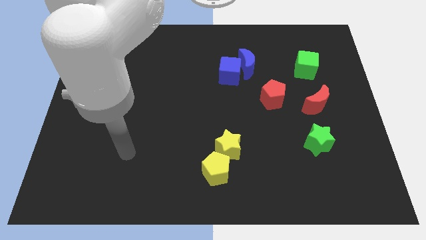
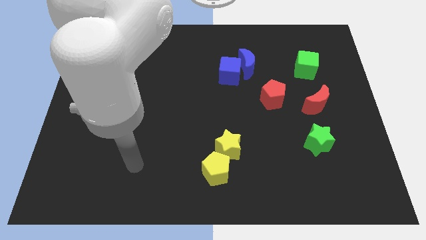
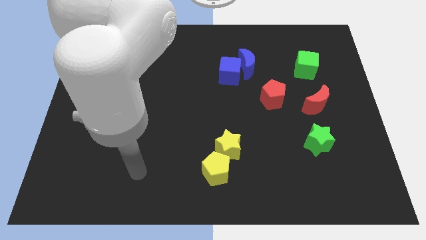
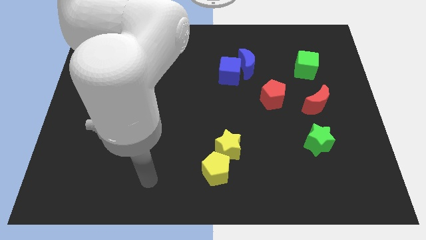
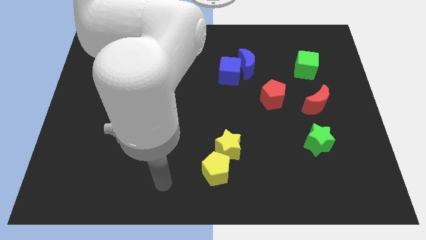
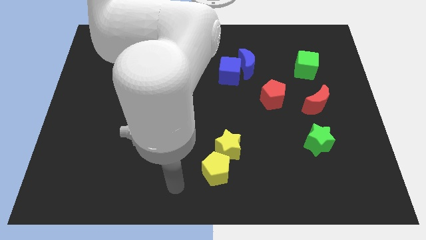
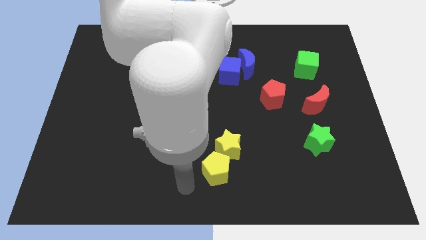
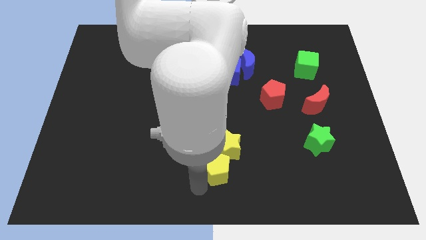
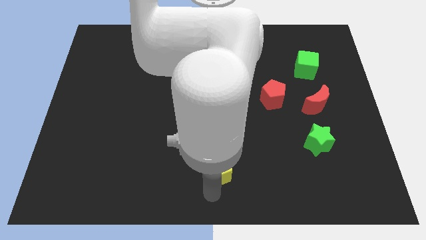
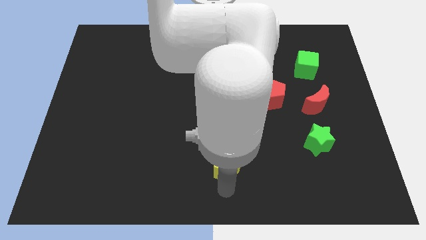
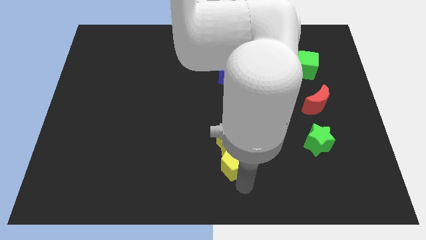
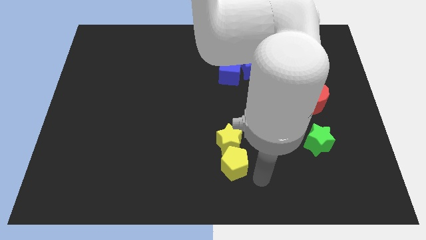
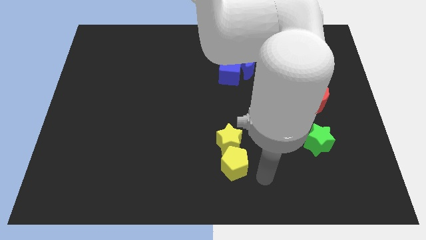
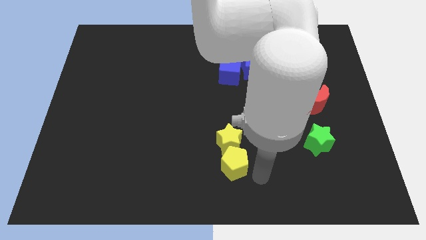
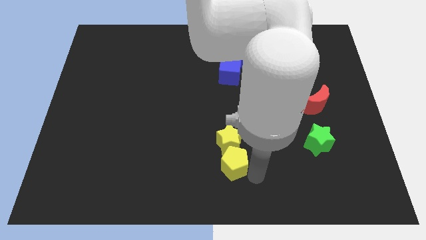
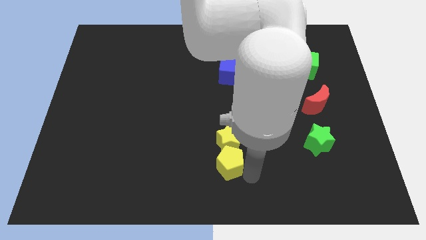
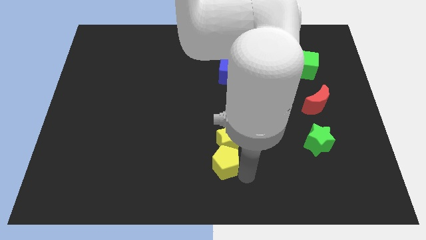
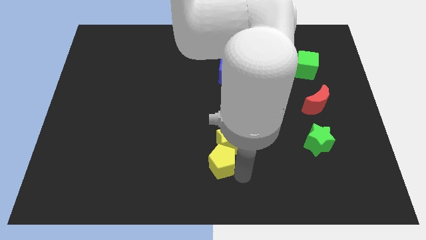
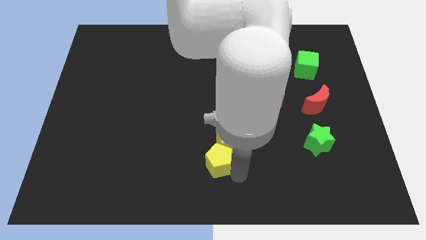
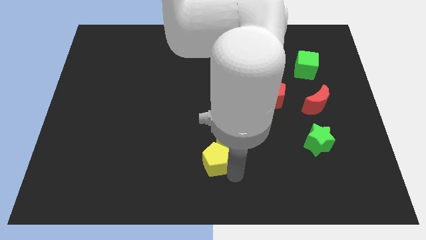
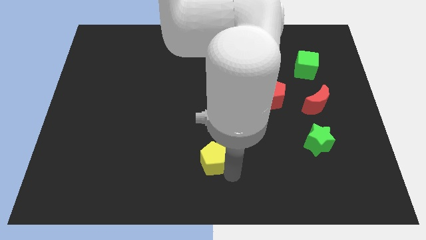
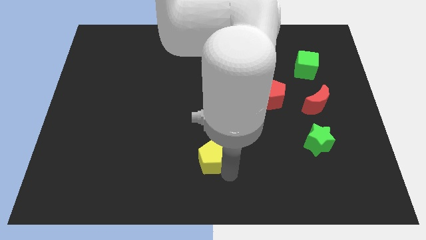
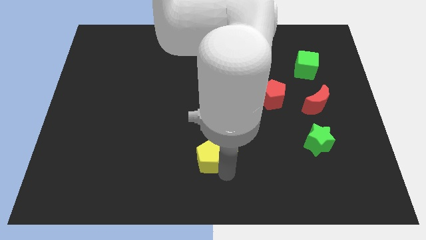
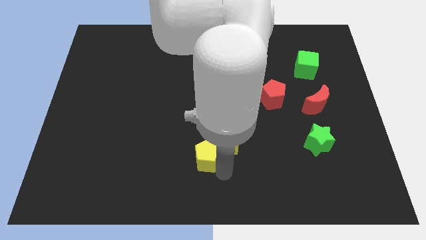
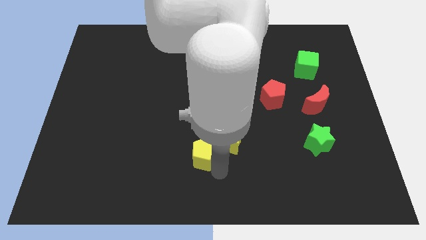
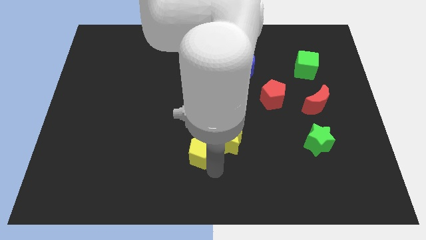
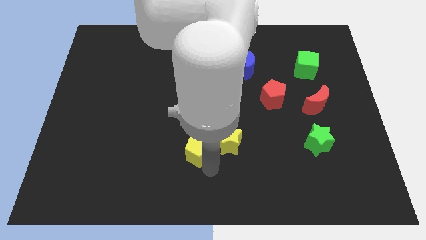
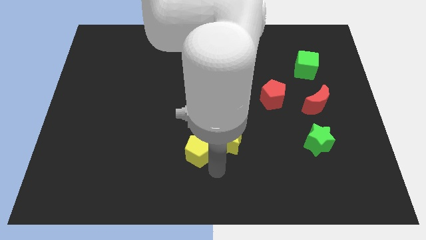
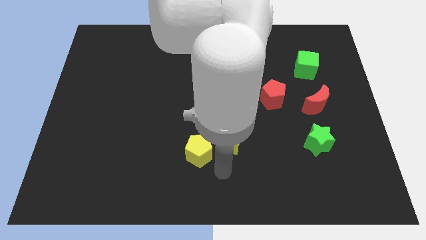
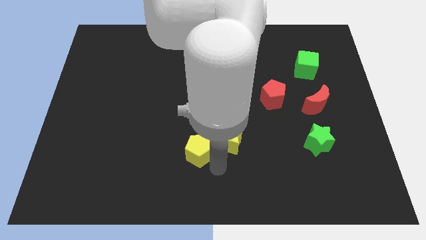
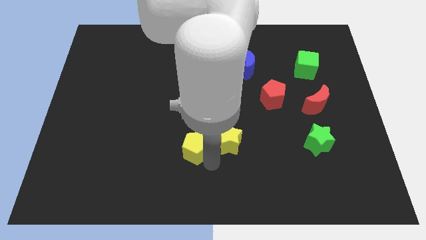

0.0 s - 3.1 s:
slightly slide the yellow pentagon diagonally up and to the left

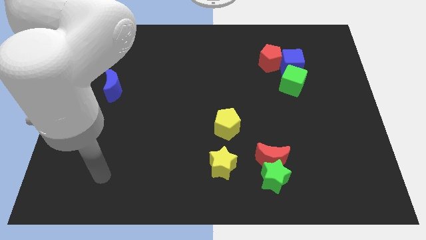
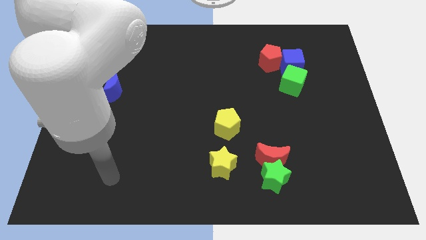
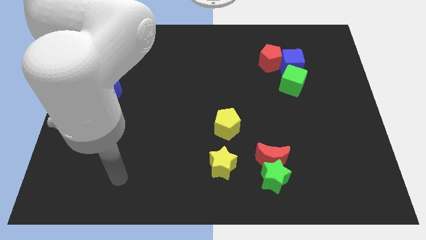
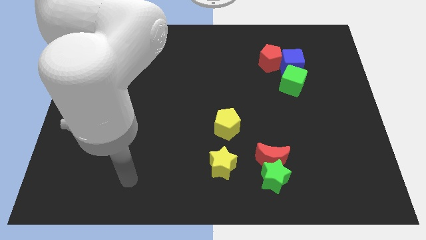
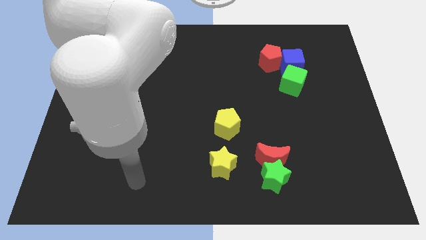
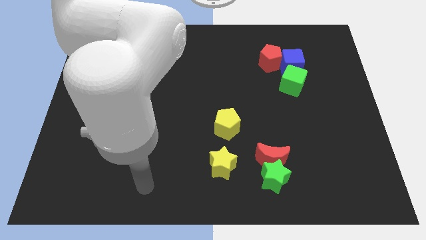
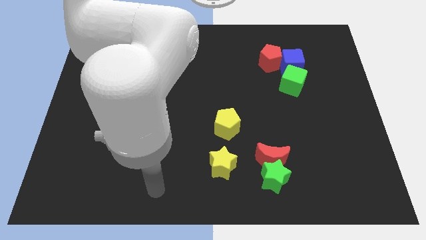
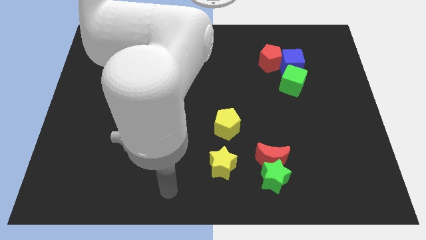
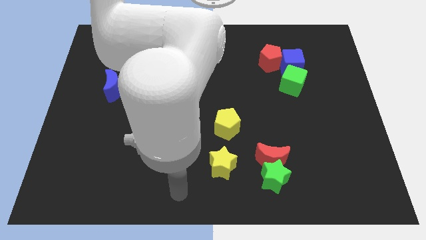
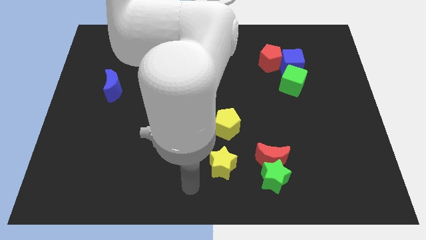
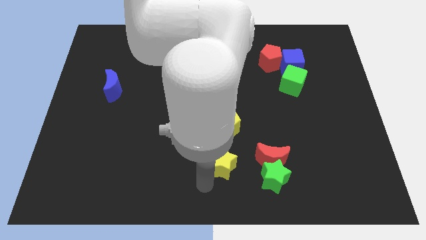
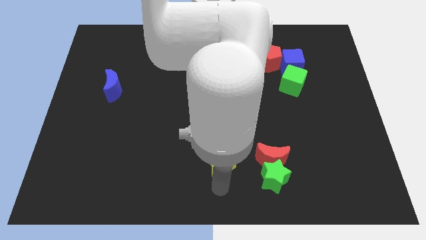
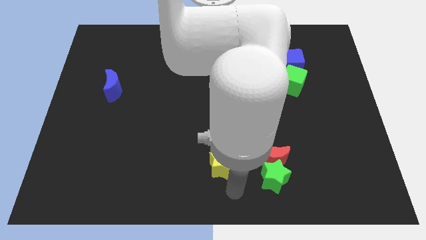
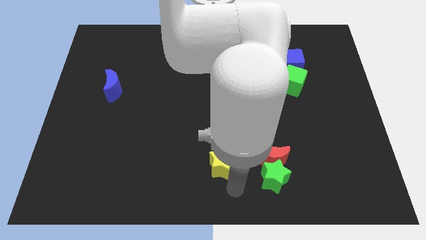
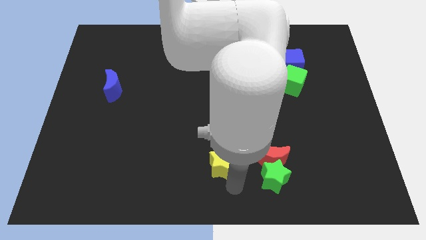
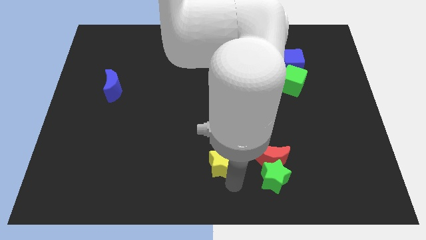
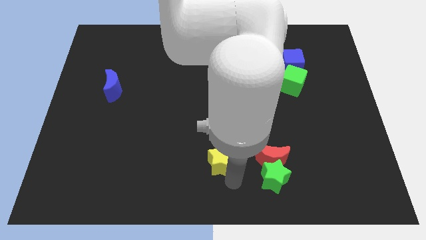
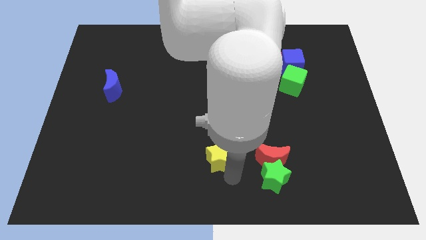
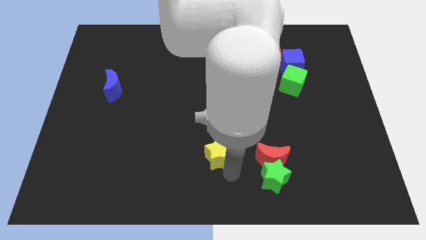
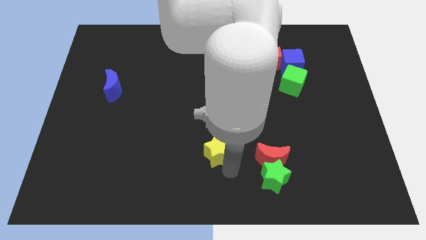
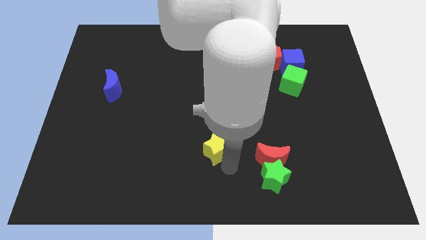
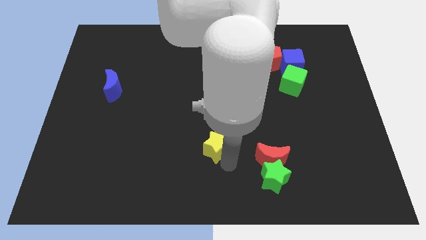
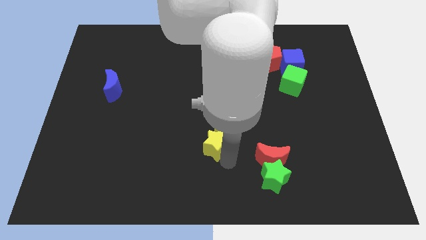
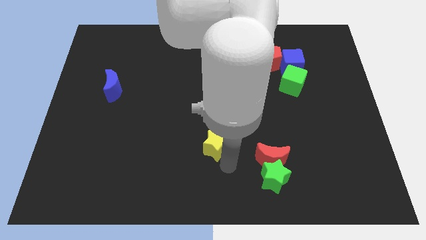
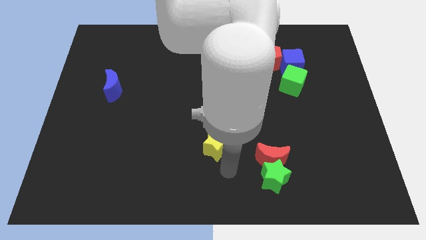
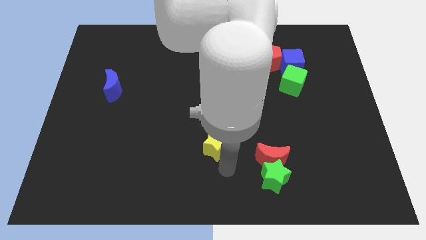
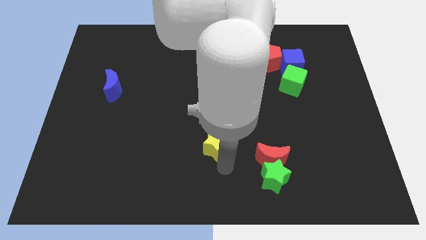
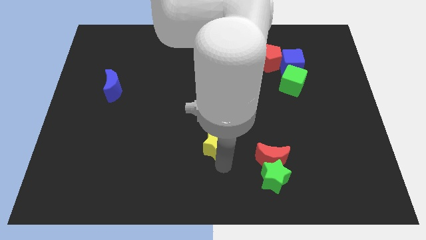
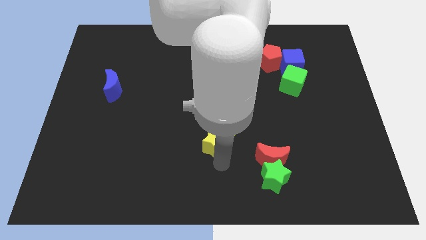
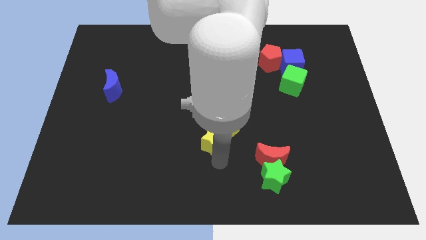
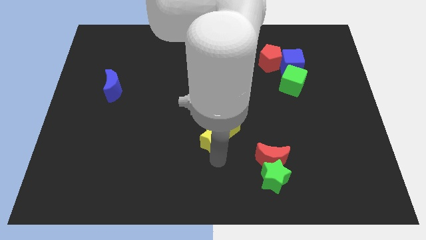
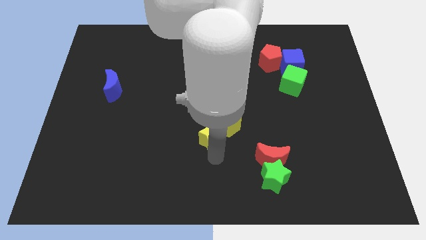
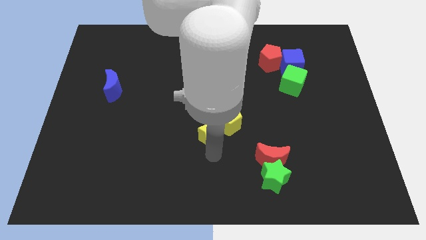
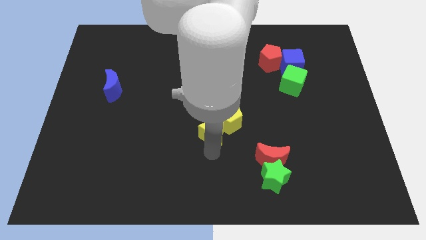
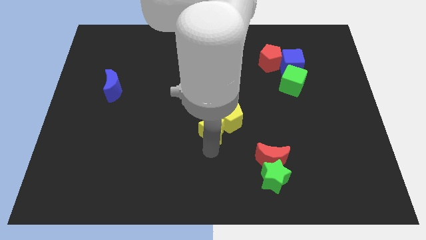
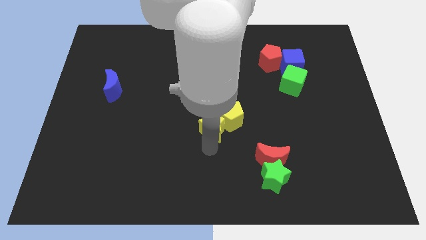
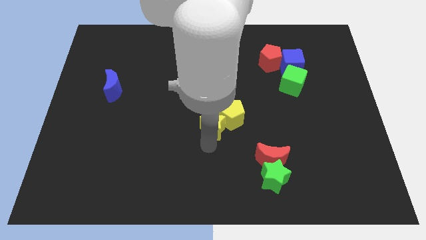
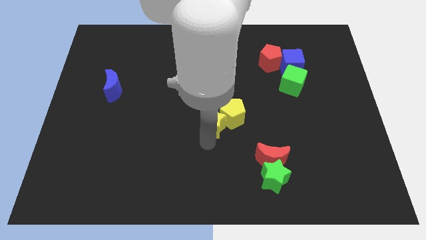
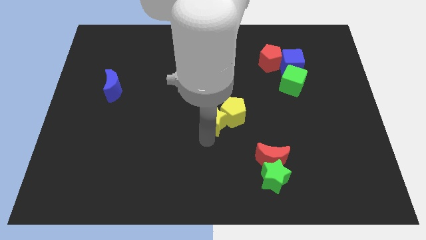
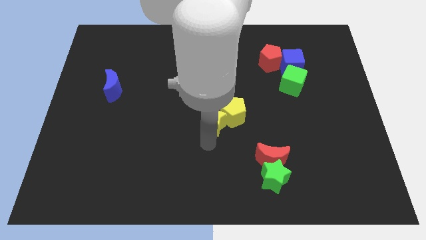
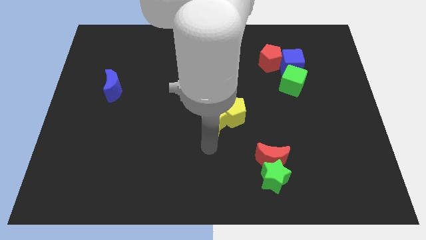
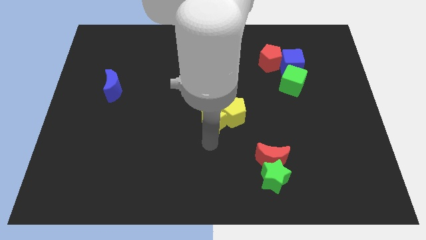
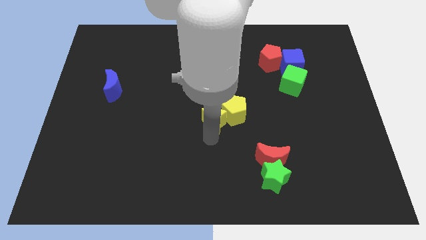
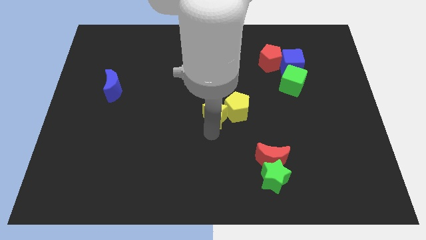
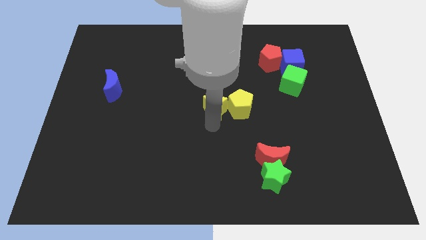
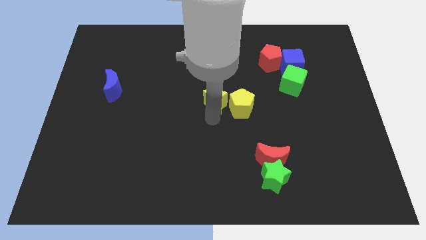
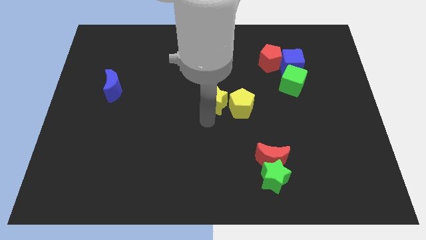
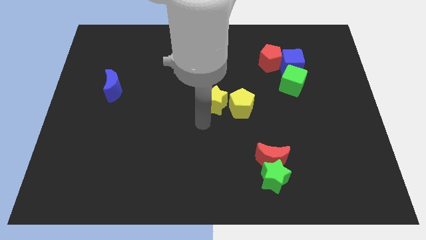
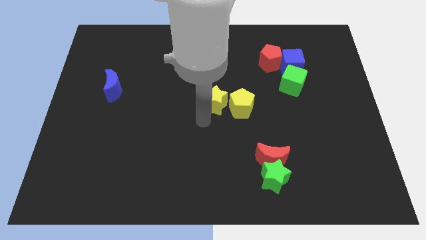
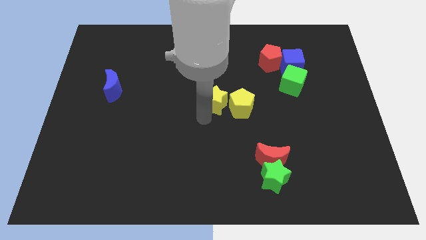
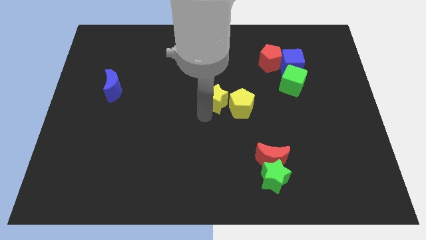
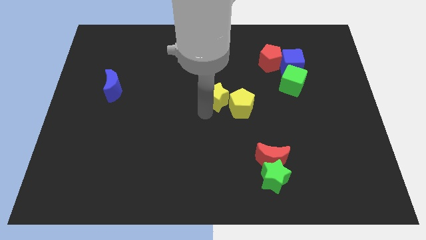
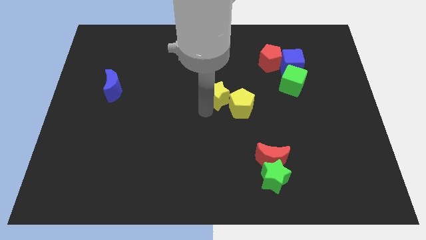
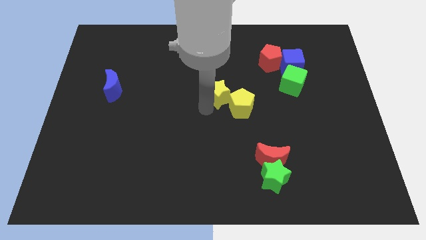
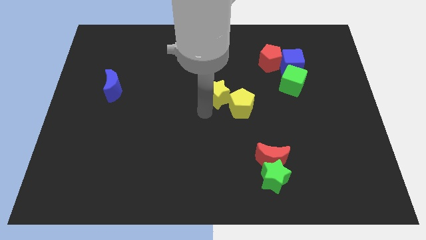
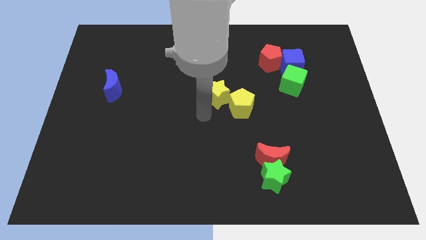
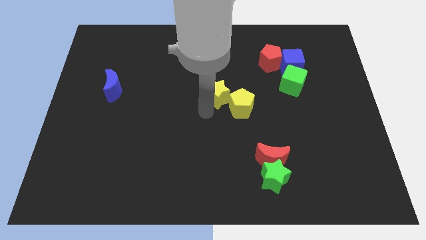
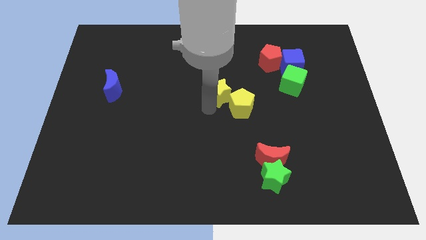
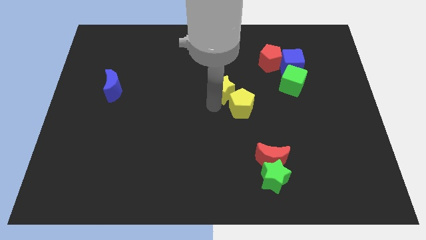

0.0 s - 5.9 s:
move the yellow star upwards
